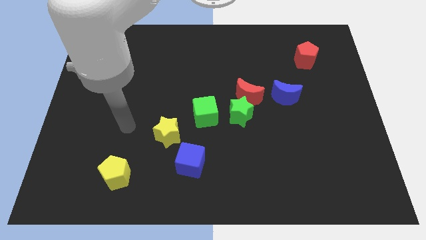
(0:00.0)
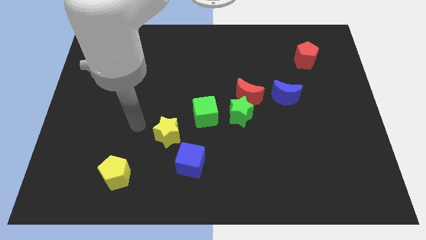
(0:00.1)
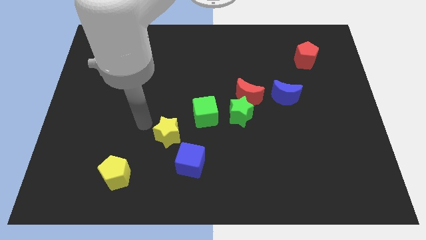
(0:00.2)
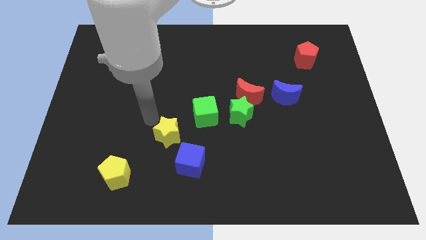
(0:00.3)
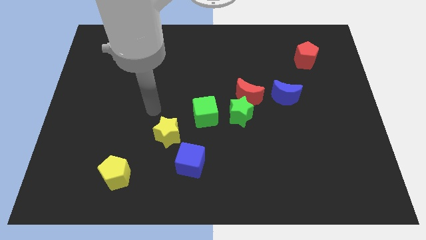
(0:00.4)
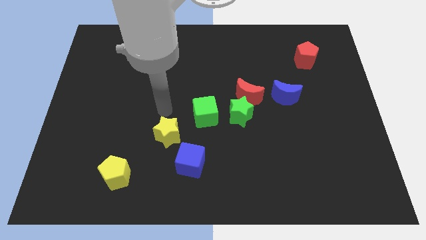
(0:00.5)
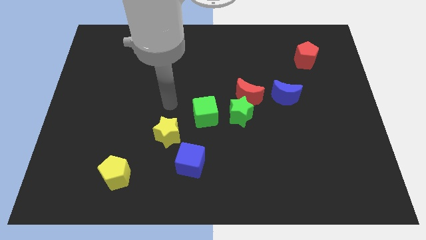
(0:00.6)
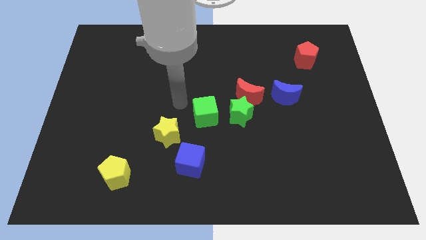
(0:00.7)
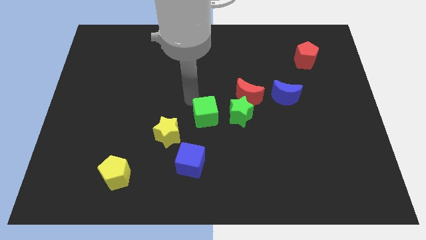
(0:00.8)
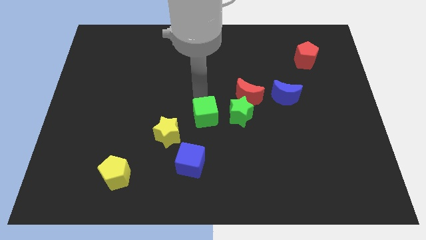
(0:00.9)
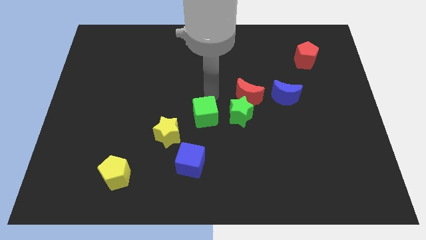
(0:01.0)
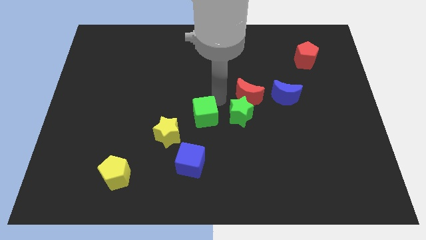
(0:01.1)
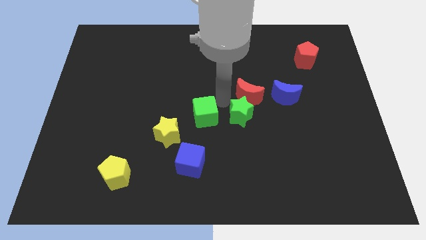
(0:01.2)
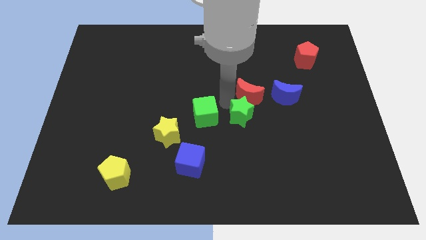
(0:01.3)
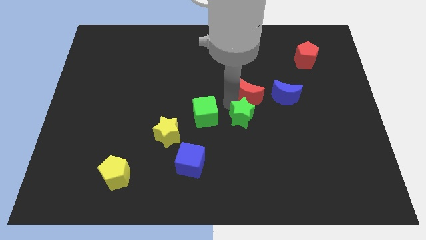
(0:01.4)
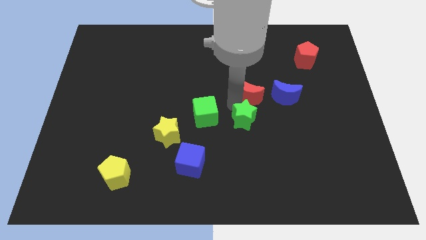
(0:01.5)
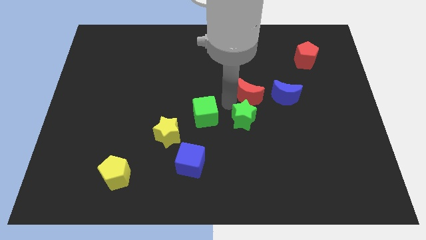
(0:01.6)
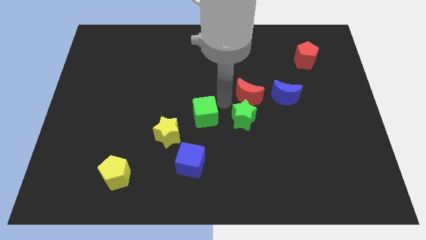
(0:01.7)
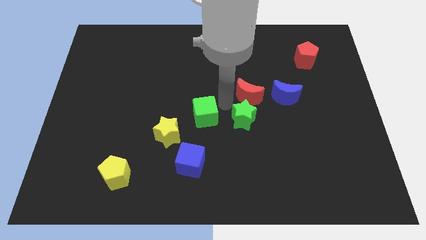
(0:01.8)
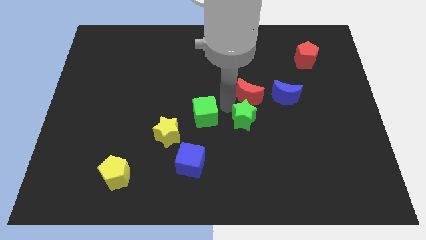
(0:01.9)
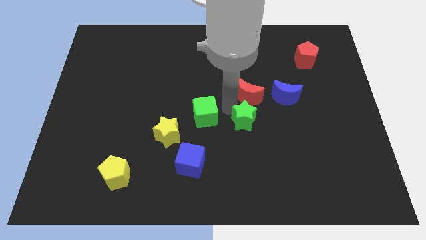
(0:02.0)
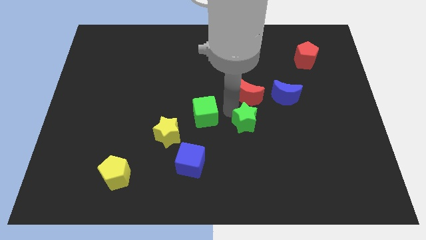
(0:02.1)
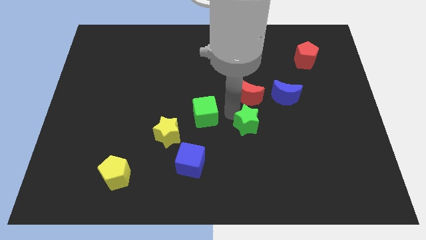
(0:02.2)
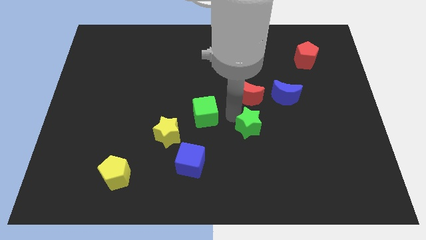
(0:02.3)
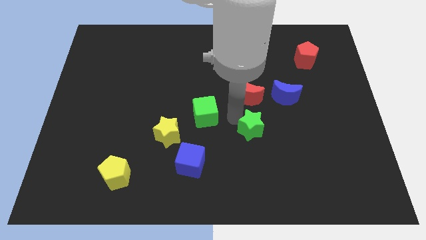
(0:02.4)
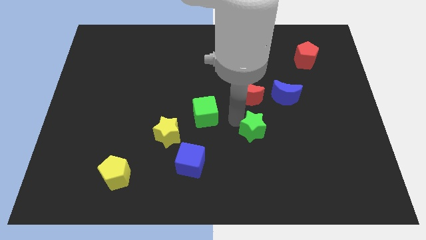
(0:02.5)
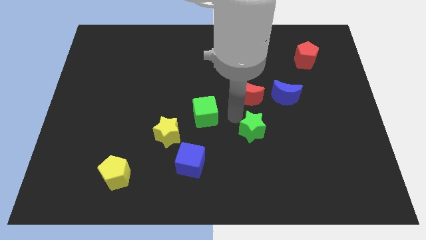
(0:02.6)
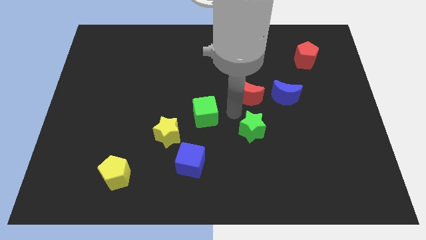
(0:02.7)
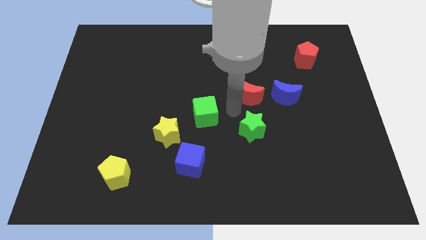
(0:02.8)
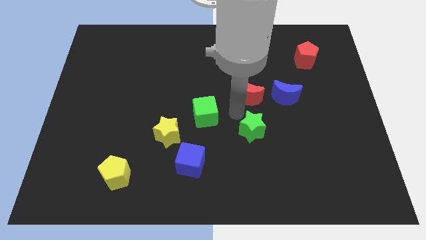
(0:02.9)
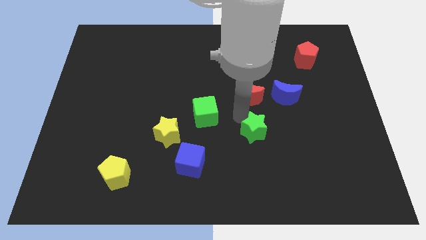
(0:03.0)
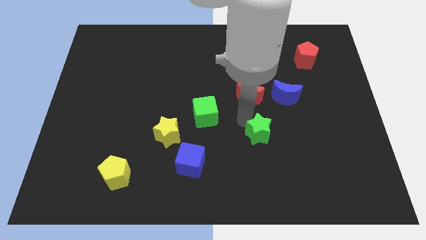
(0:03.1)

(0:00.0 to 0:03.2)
separate the green star from the red moon and green cube

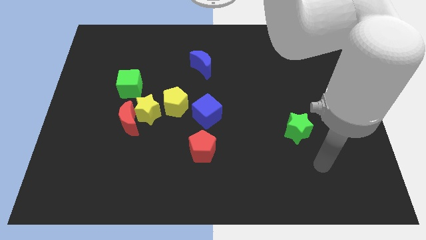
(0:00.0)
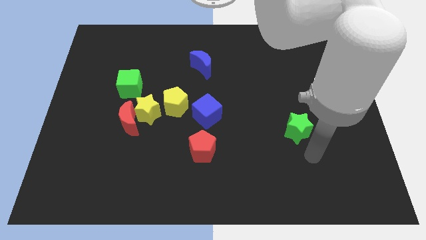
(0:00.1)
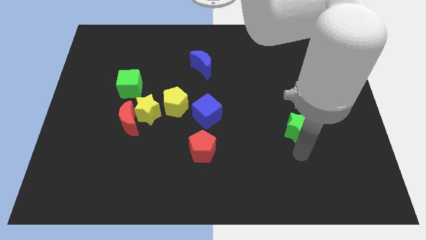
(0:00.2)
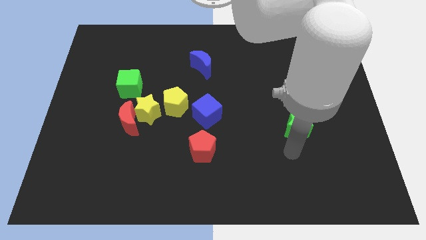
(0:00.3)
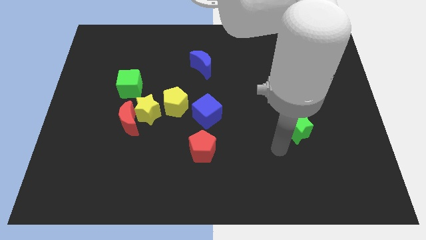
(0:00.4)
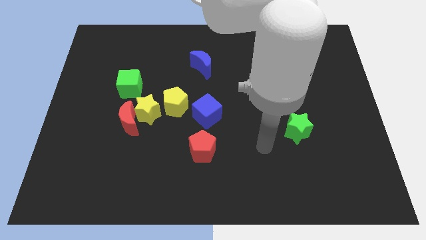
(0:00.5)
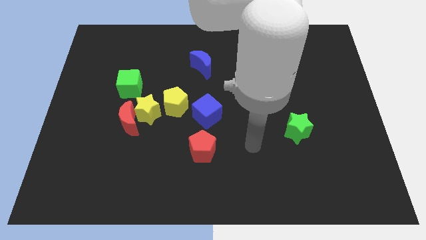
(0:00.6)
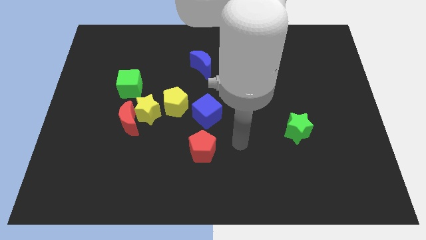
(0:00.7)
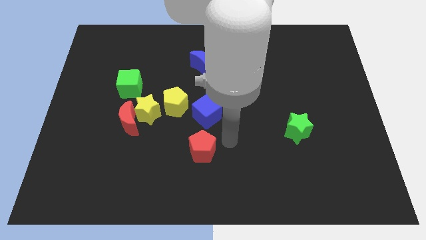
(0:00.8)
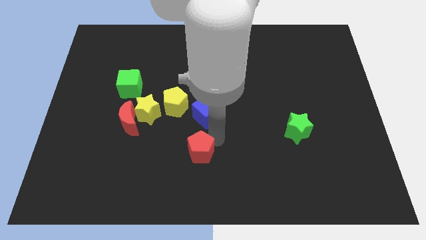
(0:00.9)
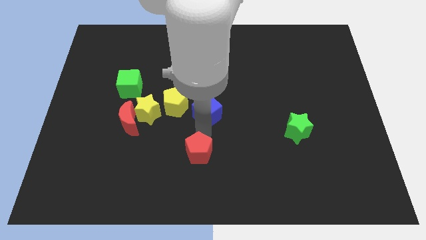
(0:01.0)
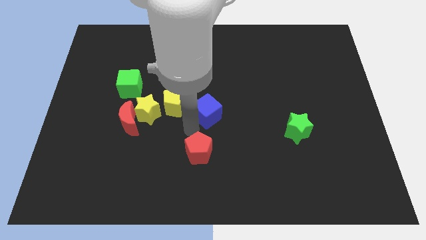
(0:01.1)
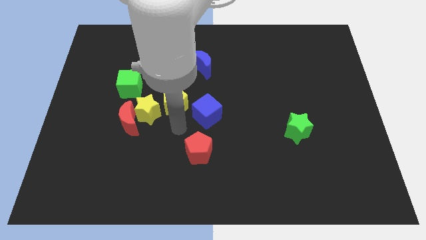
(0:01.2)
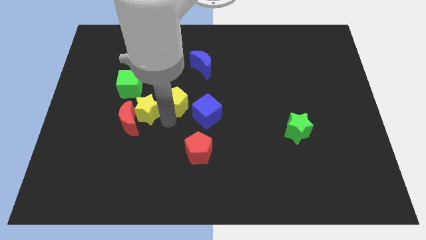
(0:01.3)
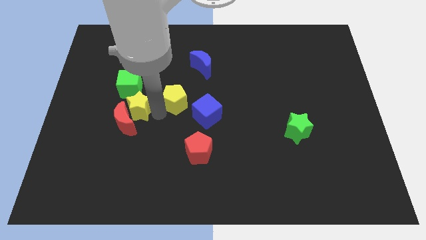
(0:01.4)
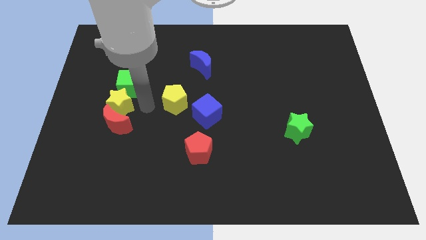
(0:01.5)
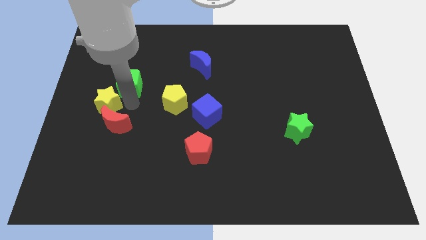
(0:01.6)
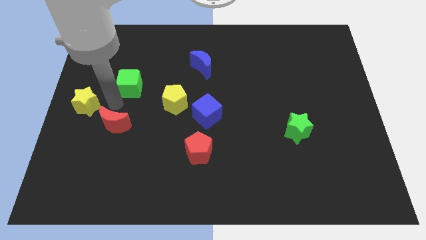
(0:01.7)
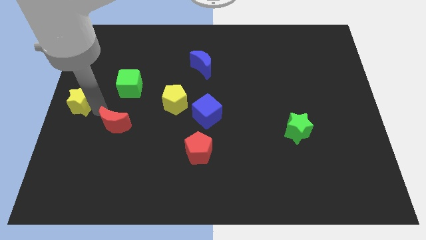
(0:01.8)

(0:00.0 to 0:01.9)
move the red moon away from the yellow star

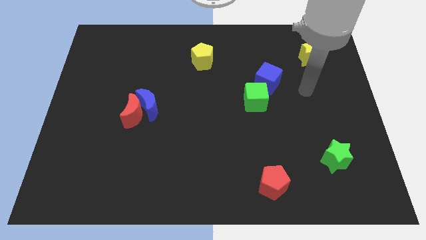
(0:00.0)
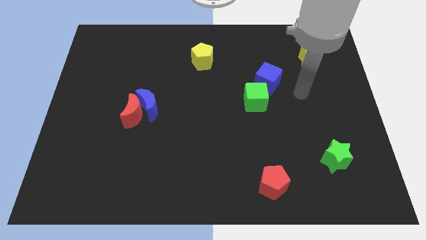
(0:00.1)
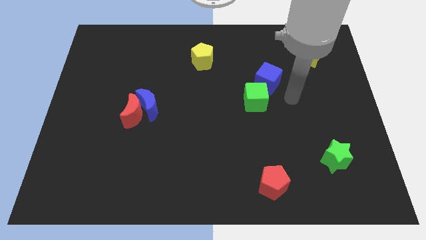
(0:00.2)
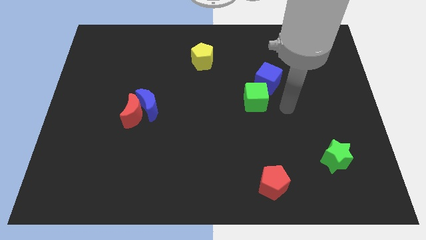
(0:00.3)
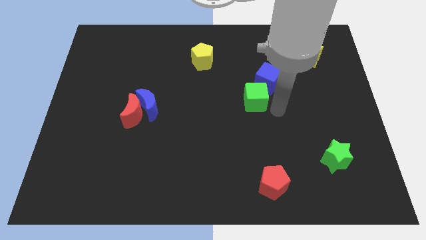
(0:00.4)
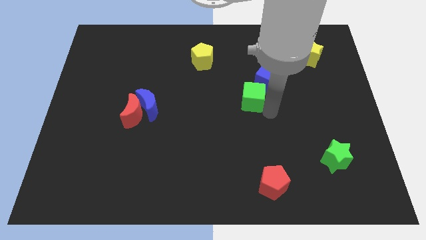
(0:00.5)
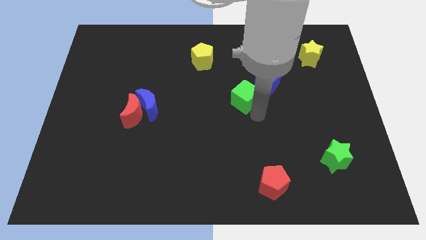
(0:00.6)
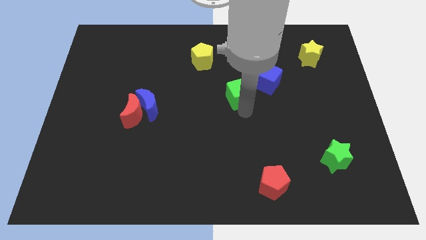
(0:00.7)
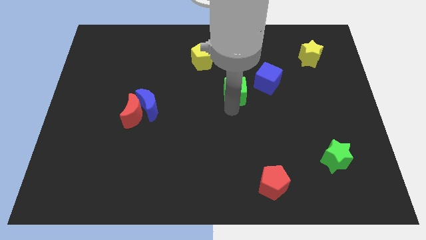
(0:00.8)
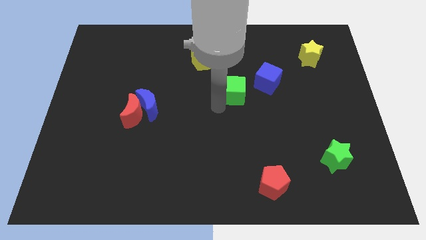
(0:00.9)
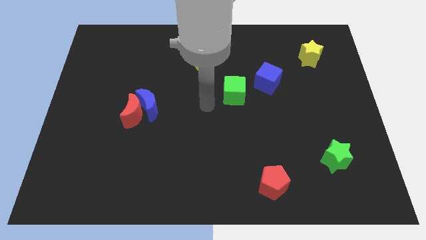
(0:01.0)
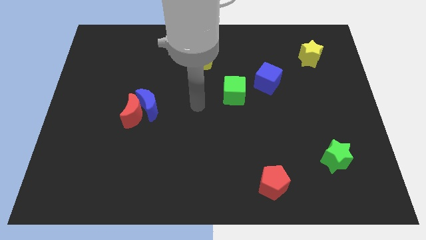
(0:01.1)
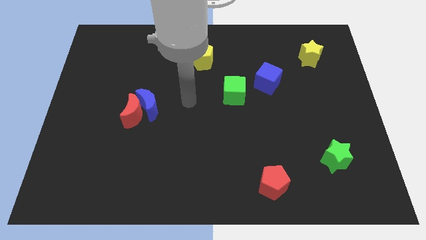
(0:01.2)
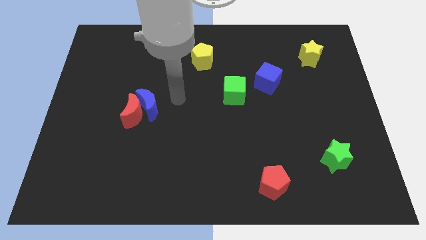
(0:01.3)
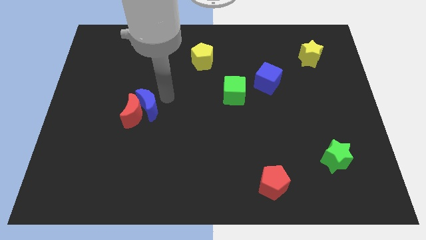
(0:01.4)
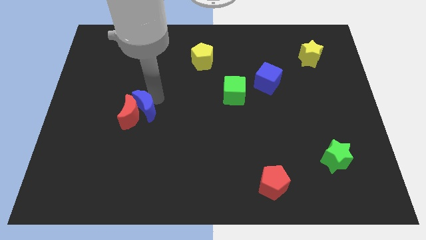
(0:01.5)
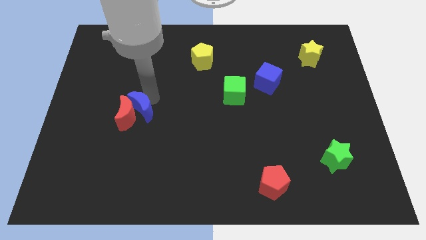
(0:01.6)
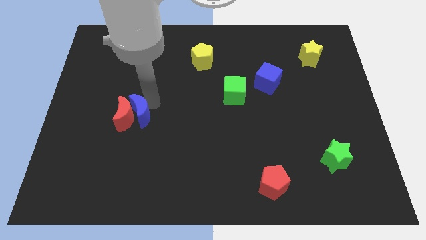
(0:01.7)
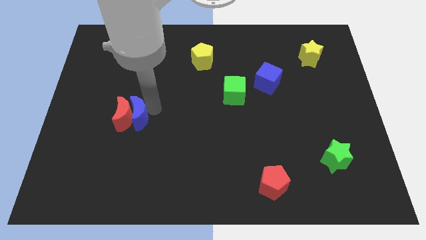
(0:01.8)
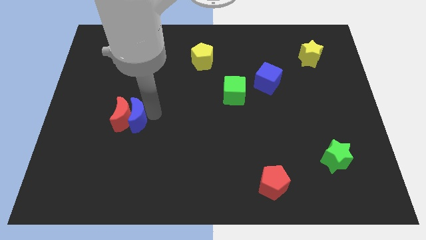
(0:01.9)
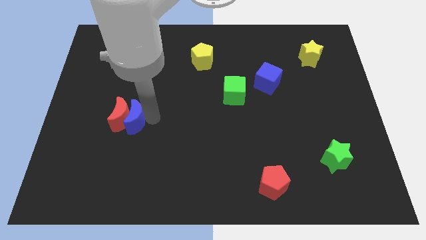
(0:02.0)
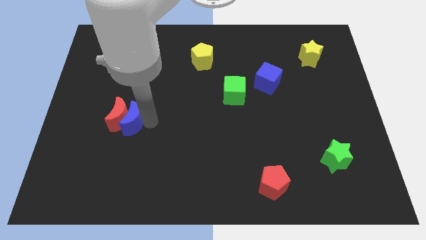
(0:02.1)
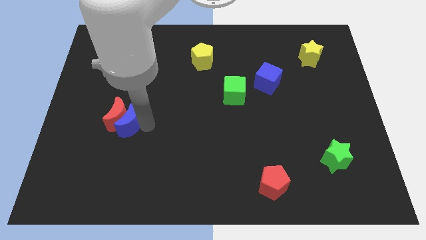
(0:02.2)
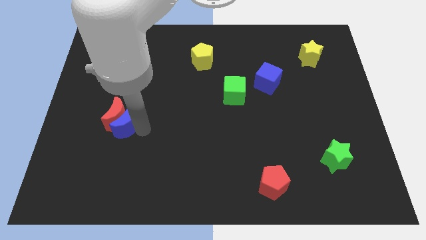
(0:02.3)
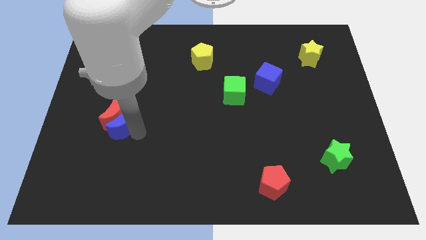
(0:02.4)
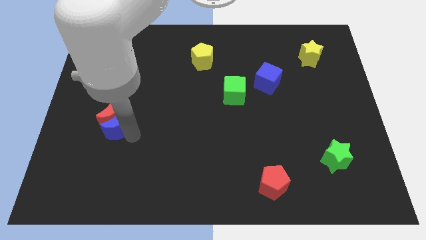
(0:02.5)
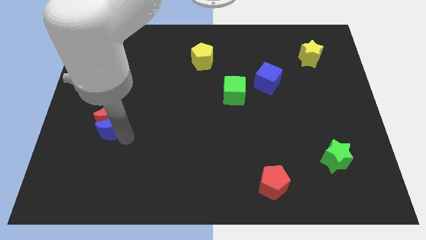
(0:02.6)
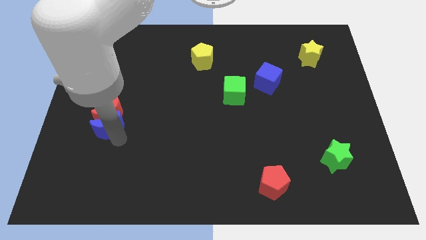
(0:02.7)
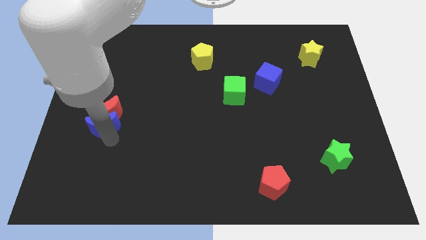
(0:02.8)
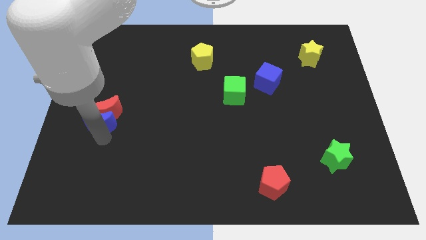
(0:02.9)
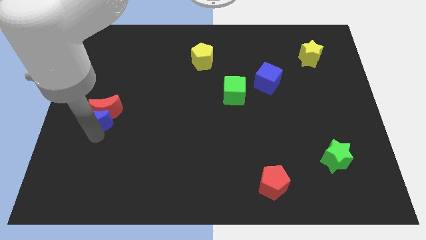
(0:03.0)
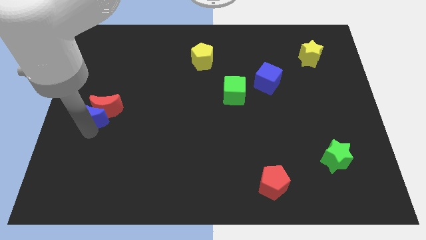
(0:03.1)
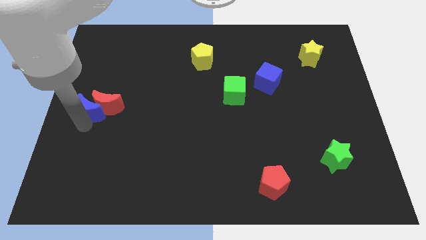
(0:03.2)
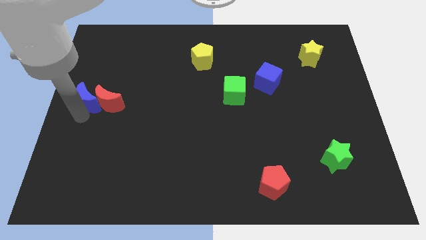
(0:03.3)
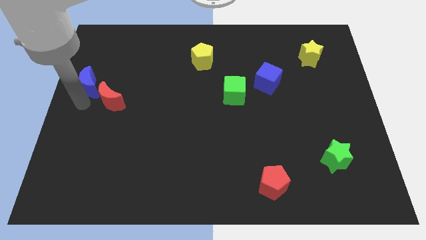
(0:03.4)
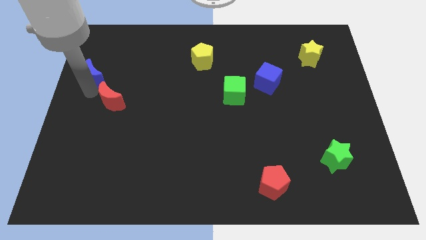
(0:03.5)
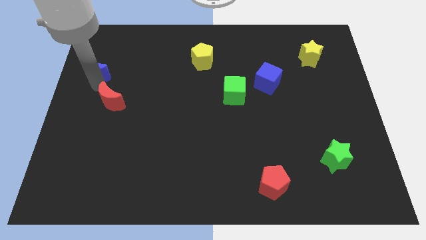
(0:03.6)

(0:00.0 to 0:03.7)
separate the red moon from the blue moon

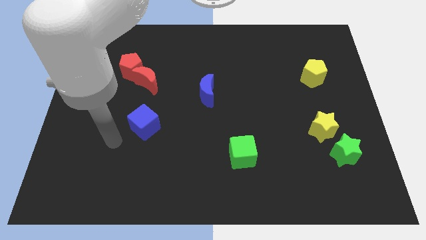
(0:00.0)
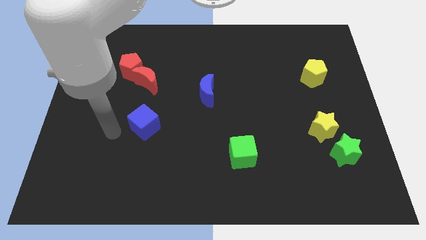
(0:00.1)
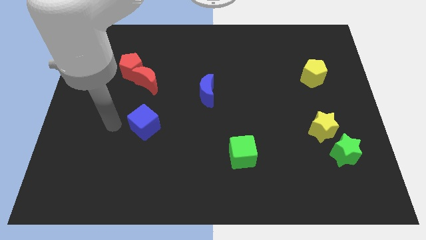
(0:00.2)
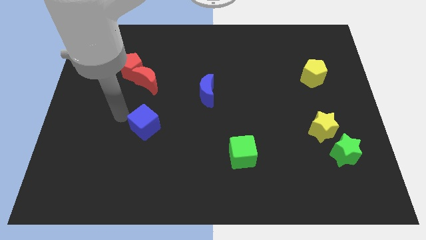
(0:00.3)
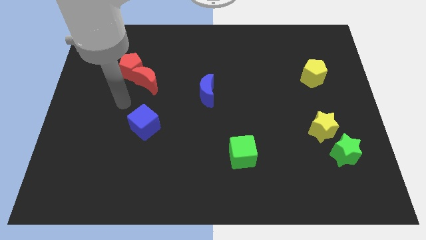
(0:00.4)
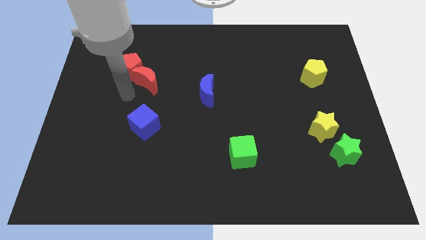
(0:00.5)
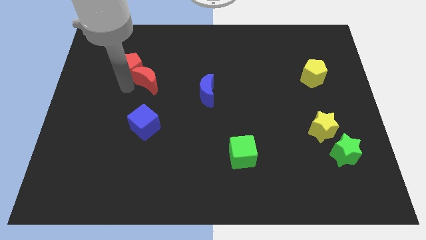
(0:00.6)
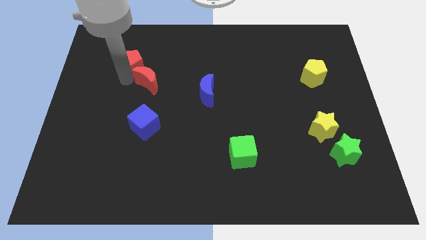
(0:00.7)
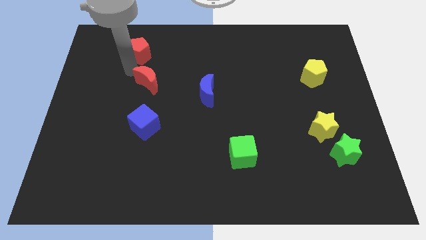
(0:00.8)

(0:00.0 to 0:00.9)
pull the red moon apart from the red pentagon
